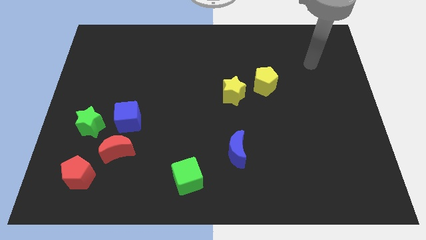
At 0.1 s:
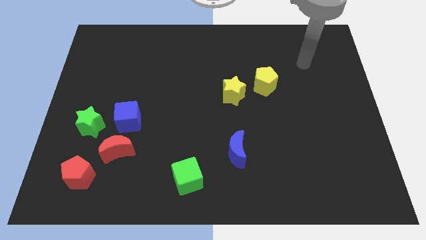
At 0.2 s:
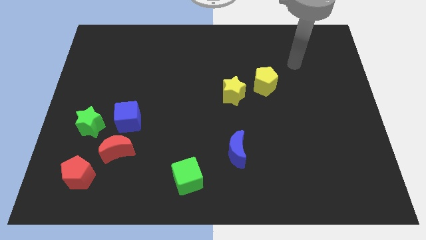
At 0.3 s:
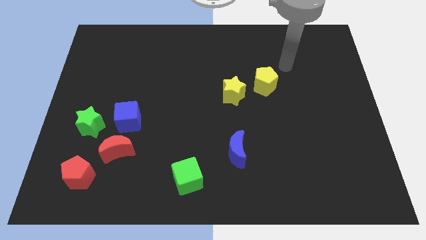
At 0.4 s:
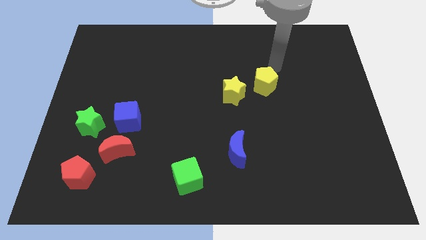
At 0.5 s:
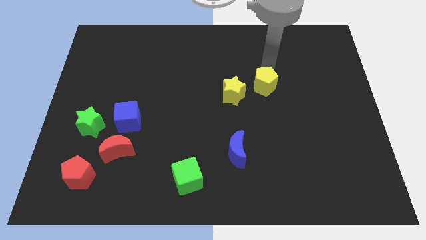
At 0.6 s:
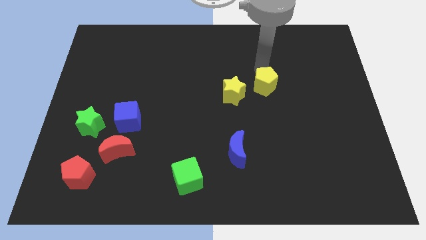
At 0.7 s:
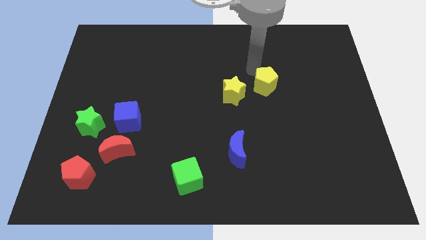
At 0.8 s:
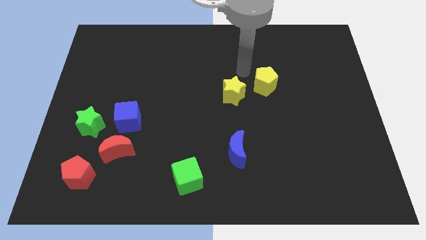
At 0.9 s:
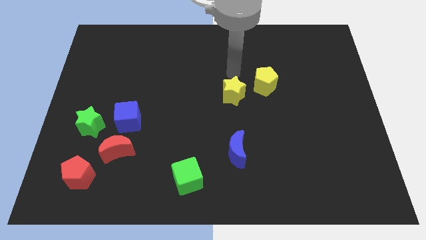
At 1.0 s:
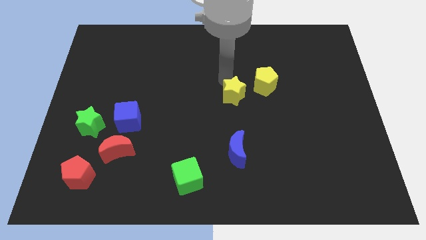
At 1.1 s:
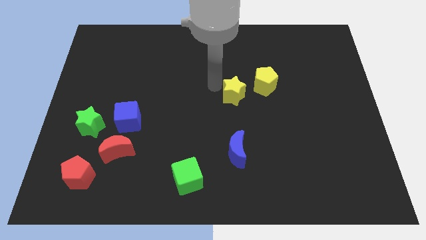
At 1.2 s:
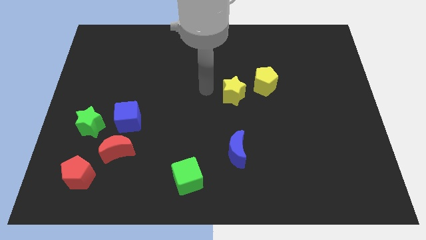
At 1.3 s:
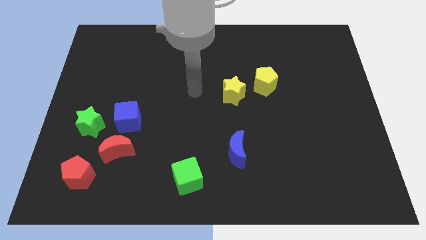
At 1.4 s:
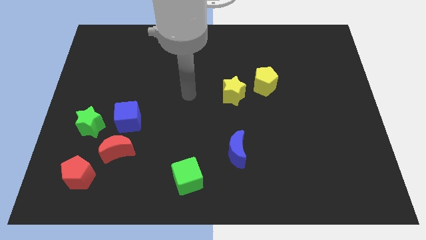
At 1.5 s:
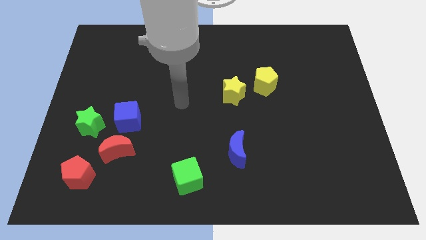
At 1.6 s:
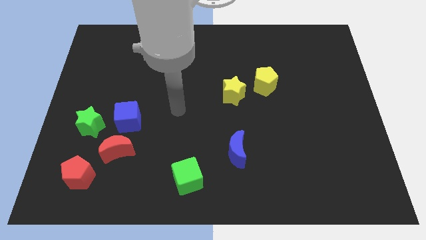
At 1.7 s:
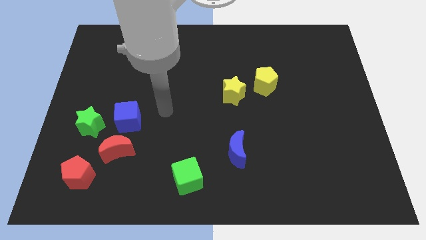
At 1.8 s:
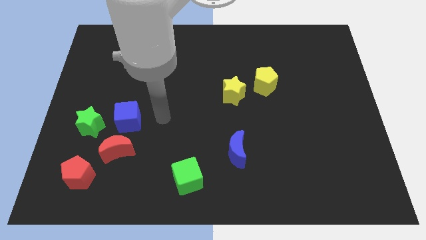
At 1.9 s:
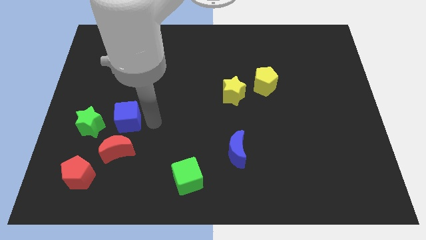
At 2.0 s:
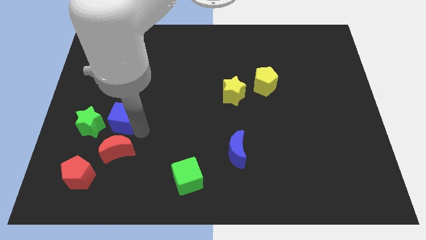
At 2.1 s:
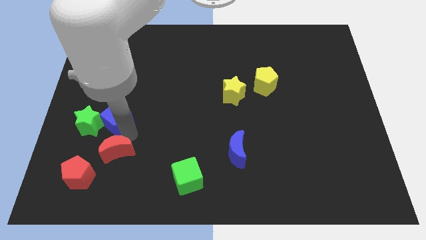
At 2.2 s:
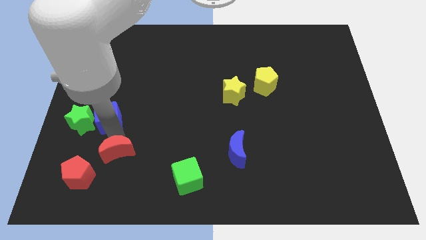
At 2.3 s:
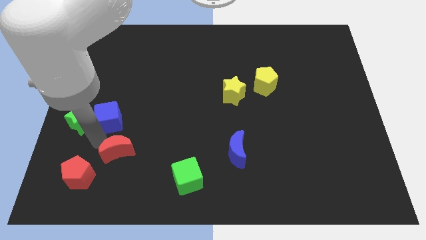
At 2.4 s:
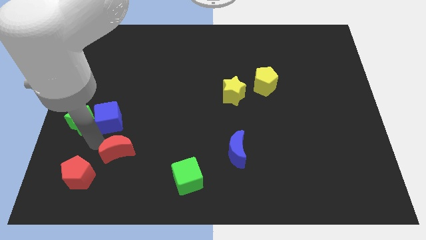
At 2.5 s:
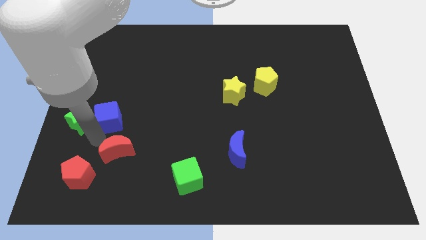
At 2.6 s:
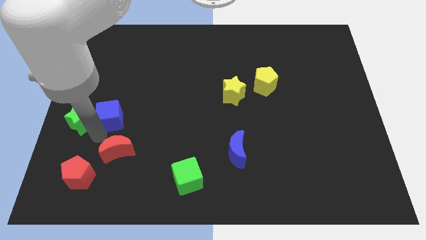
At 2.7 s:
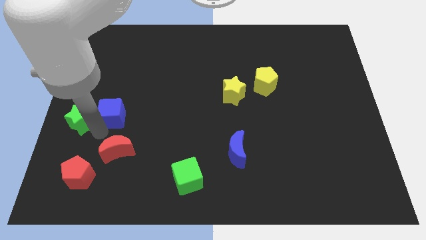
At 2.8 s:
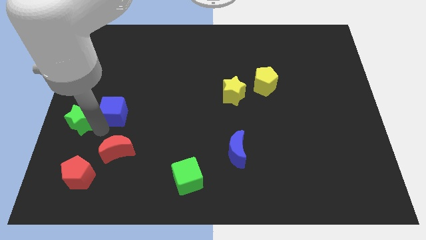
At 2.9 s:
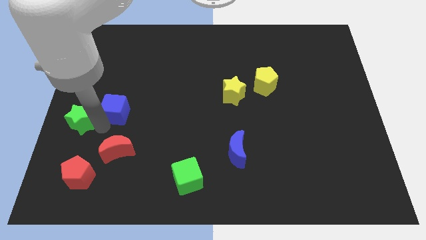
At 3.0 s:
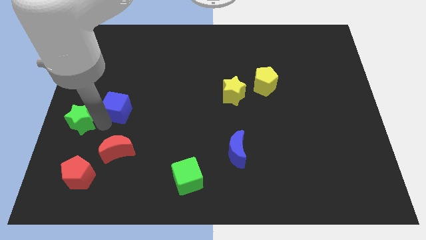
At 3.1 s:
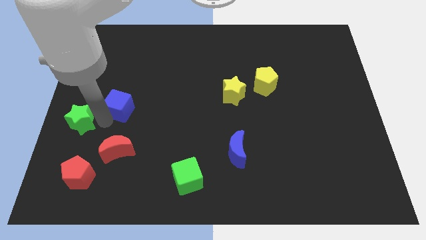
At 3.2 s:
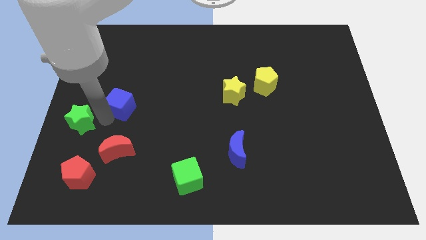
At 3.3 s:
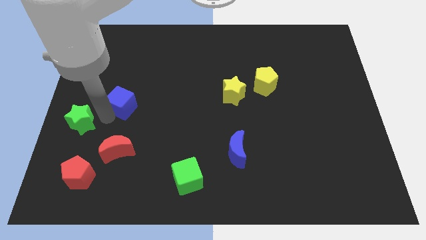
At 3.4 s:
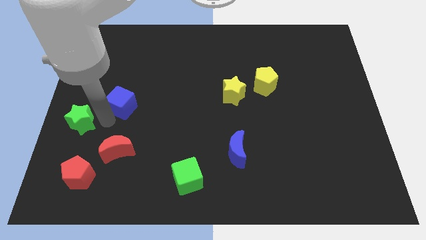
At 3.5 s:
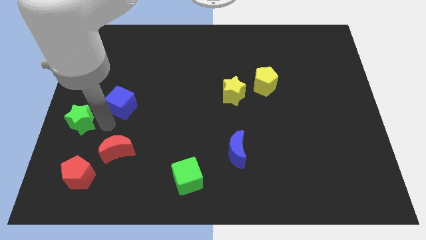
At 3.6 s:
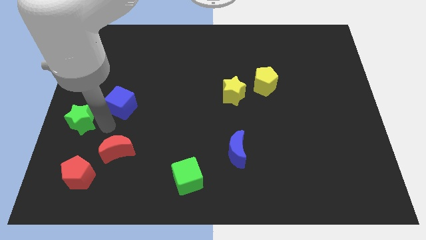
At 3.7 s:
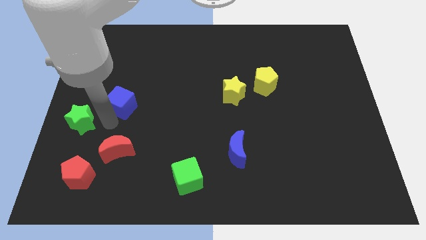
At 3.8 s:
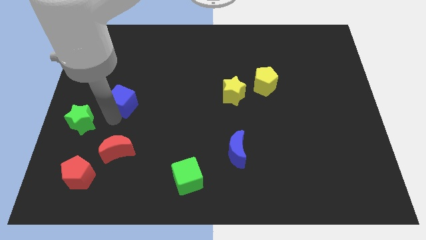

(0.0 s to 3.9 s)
pull the blue cube apart from the red moon and green star

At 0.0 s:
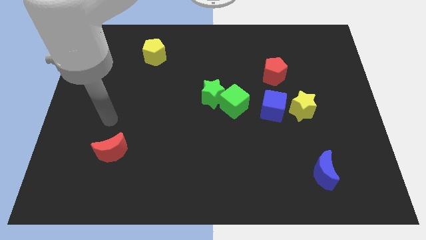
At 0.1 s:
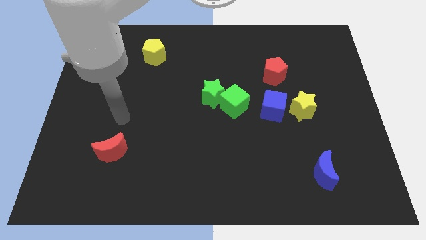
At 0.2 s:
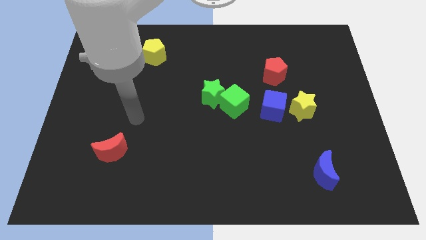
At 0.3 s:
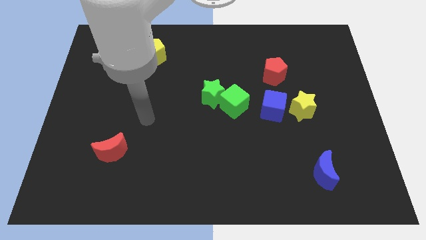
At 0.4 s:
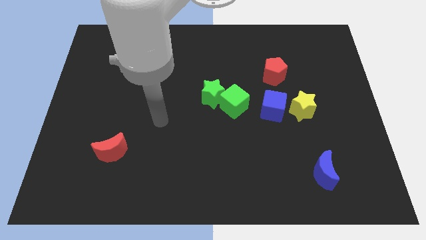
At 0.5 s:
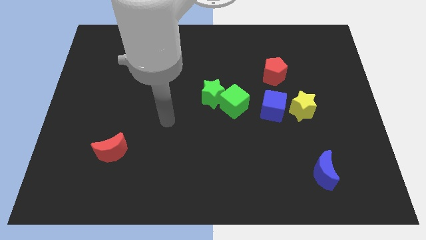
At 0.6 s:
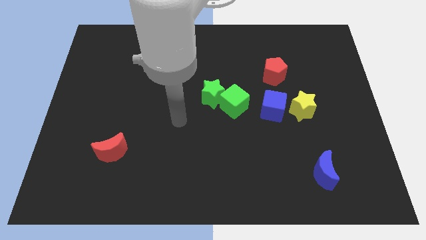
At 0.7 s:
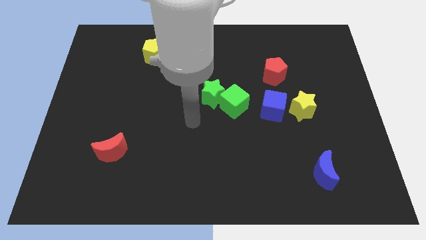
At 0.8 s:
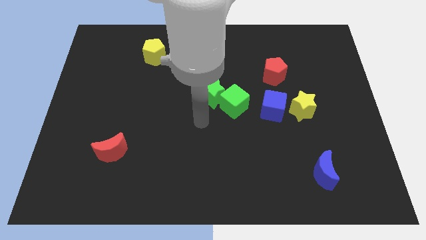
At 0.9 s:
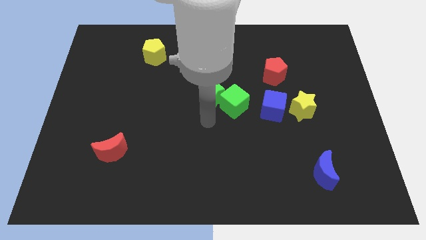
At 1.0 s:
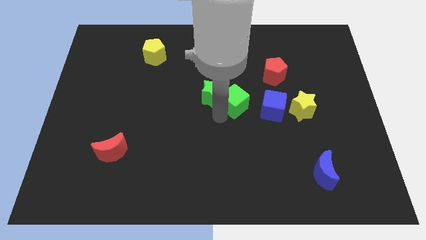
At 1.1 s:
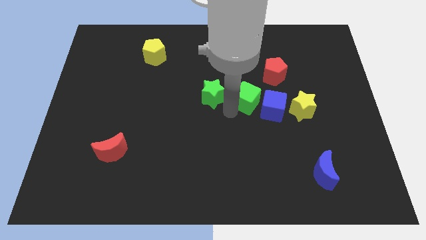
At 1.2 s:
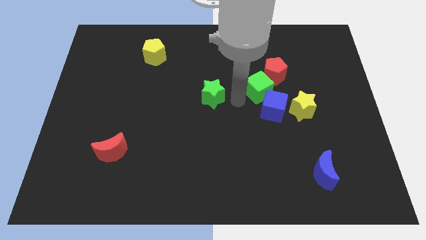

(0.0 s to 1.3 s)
pull the green star apart from the green cube

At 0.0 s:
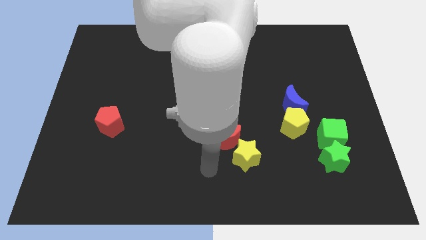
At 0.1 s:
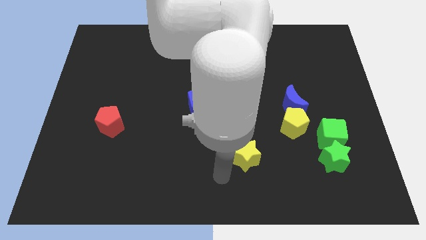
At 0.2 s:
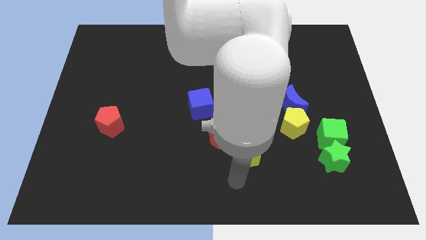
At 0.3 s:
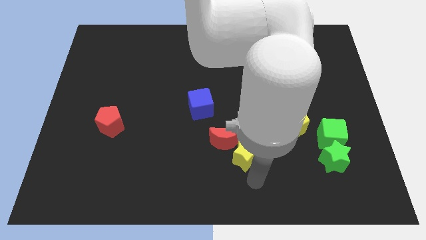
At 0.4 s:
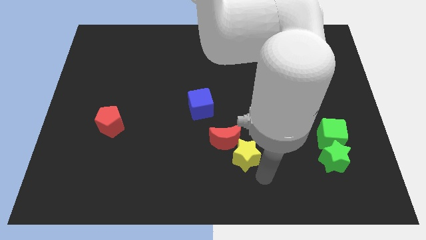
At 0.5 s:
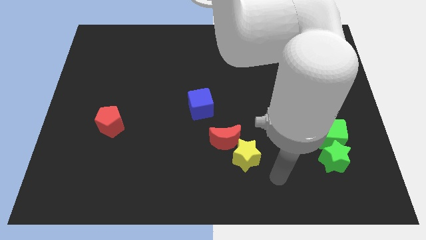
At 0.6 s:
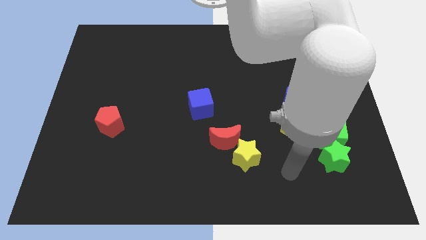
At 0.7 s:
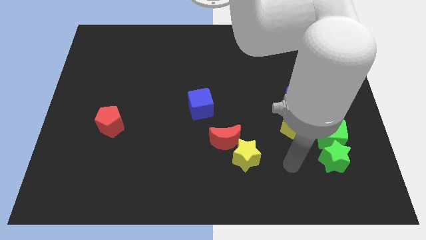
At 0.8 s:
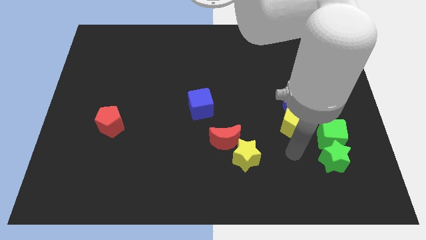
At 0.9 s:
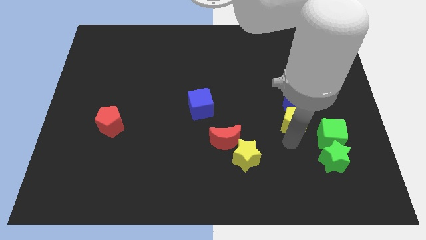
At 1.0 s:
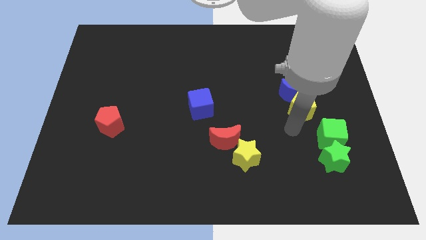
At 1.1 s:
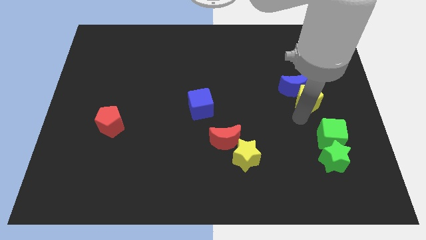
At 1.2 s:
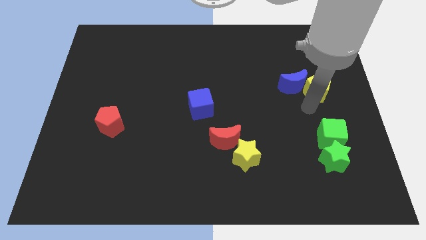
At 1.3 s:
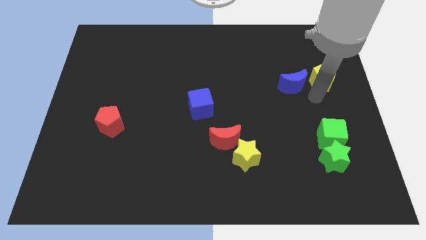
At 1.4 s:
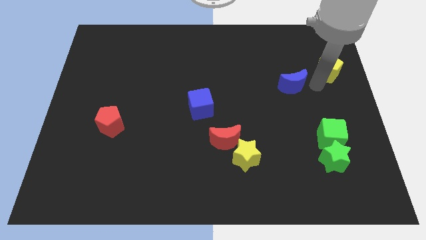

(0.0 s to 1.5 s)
pull the blue moon apart from the yellow pentagon

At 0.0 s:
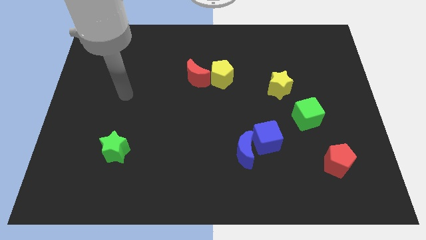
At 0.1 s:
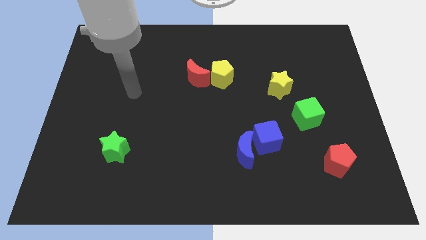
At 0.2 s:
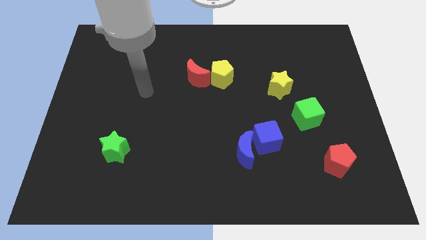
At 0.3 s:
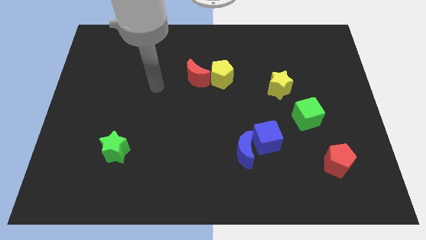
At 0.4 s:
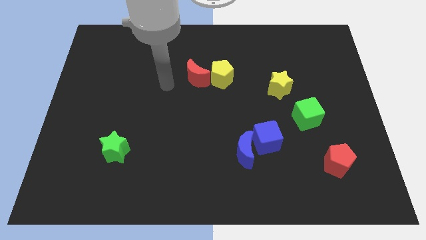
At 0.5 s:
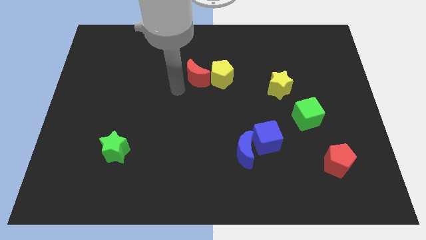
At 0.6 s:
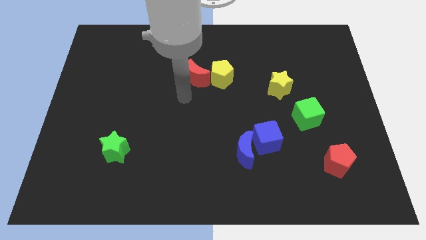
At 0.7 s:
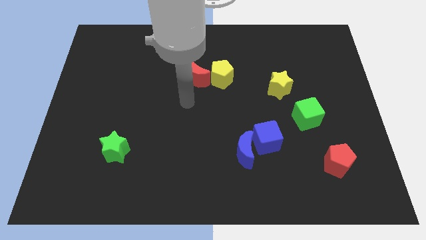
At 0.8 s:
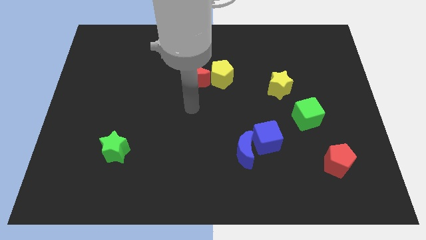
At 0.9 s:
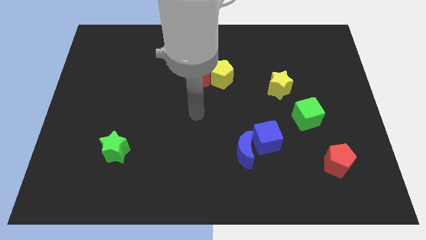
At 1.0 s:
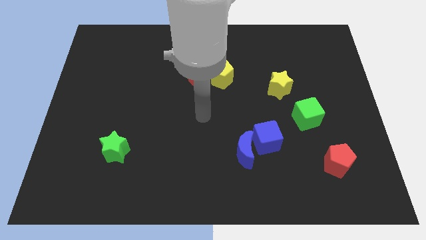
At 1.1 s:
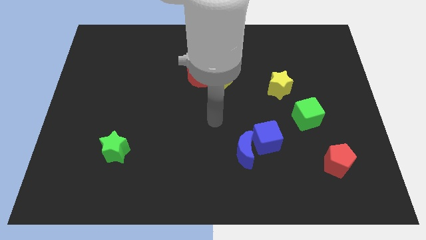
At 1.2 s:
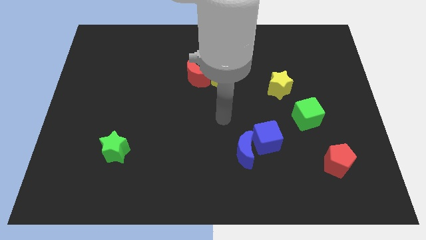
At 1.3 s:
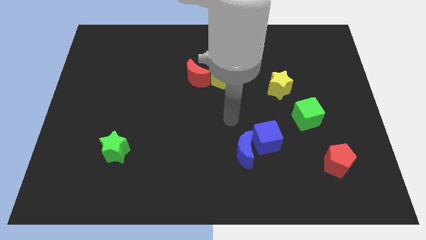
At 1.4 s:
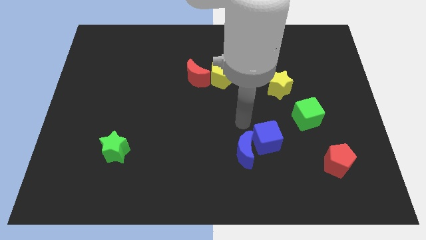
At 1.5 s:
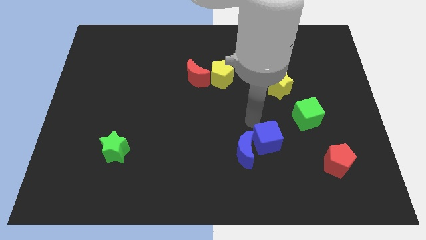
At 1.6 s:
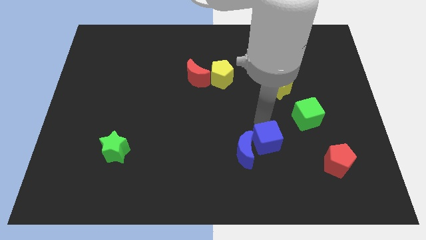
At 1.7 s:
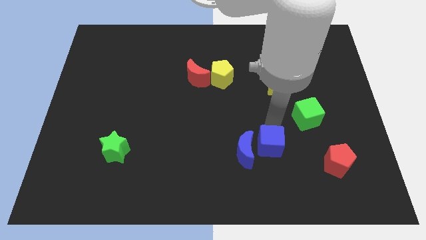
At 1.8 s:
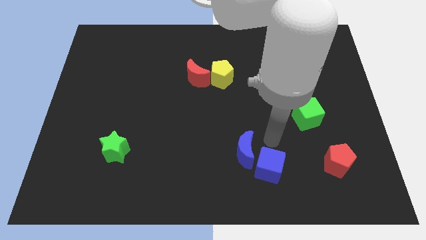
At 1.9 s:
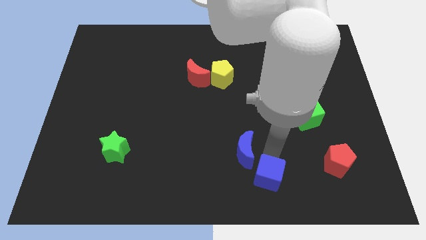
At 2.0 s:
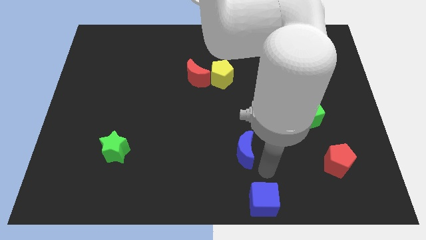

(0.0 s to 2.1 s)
separate the blue moon from the blue cube

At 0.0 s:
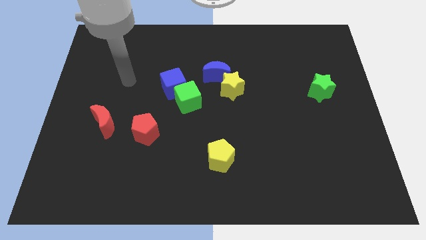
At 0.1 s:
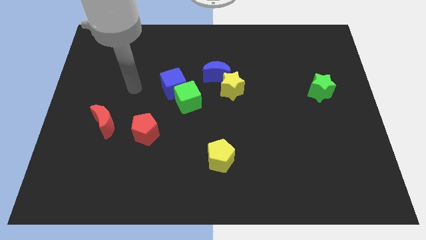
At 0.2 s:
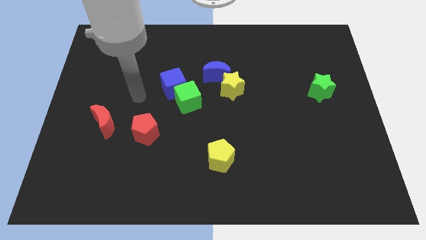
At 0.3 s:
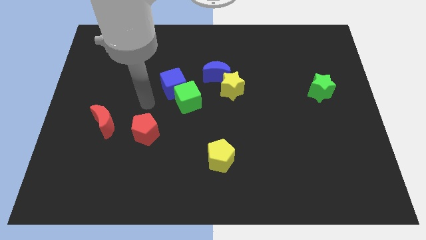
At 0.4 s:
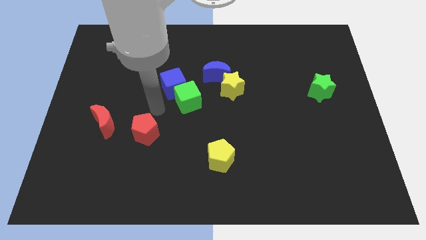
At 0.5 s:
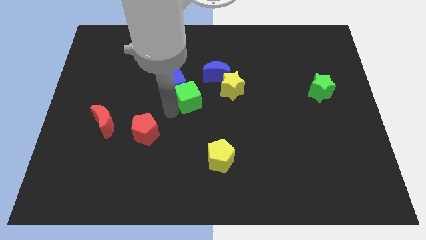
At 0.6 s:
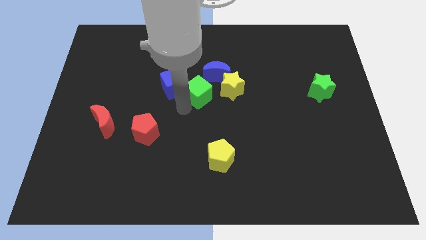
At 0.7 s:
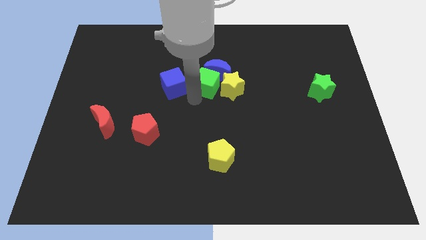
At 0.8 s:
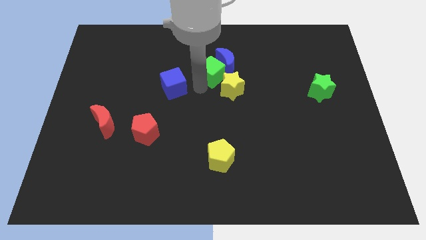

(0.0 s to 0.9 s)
move the blue cube away from the green cube
